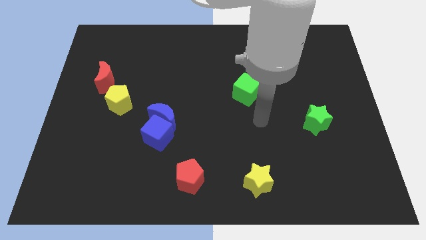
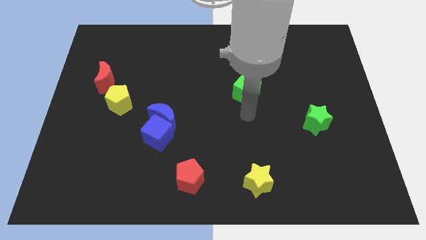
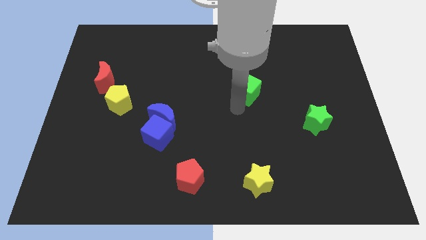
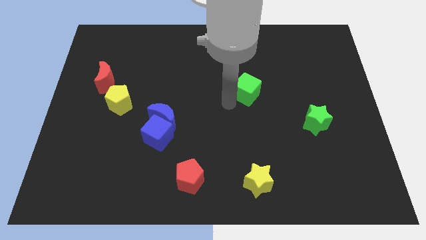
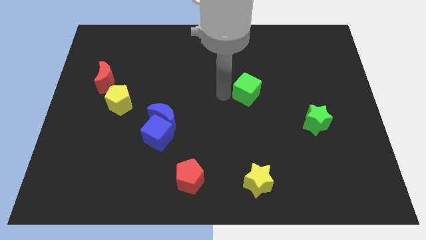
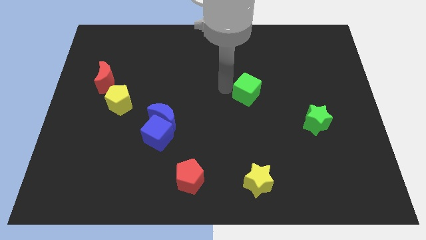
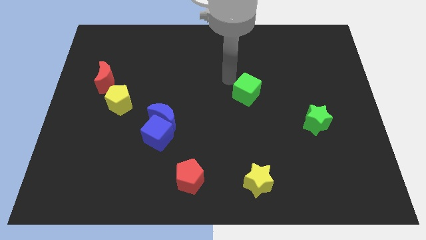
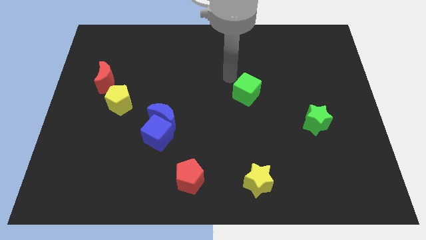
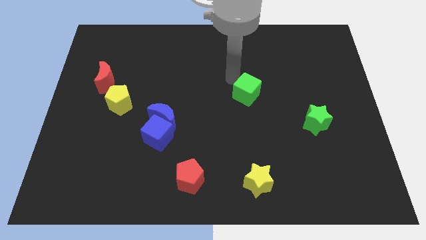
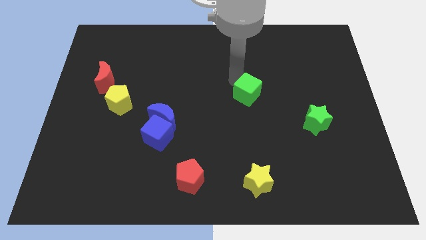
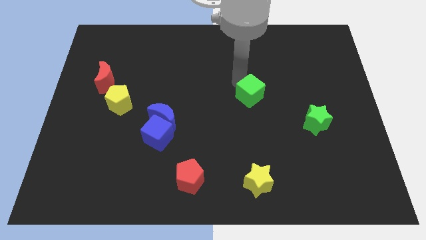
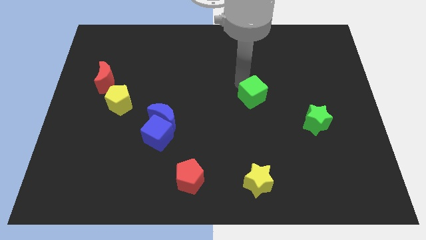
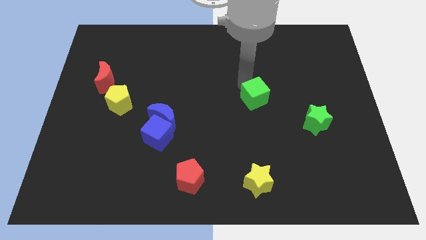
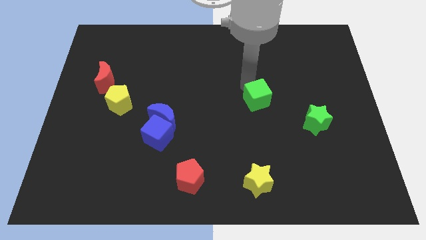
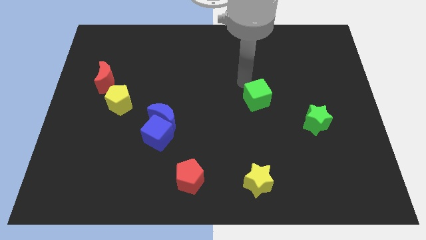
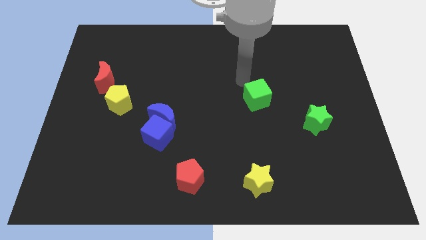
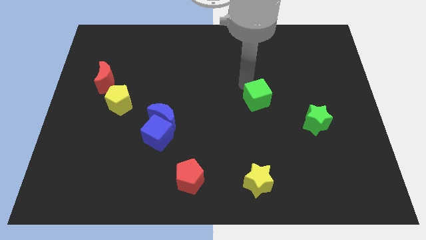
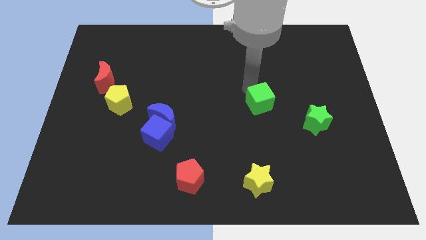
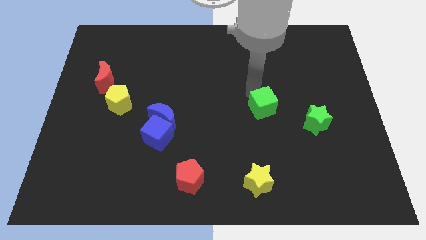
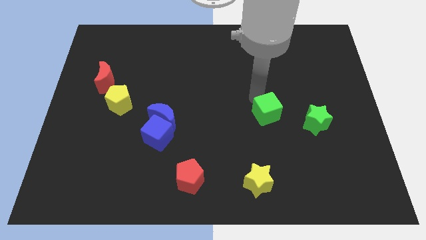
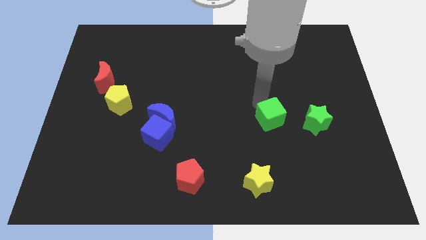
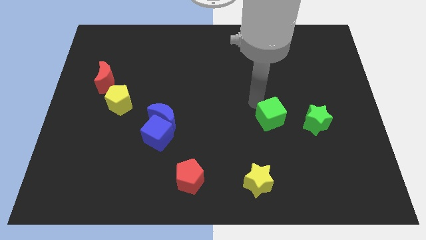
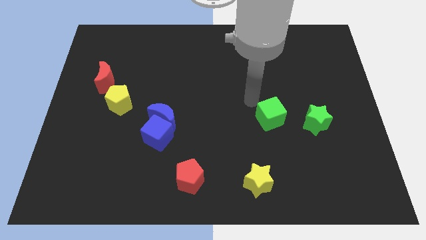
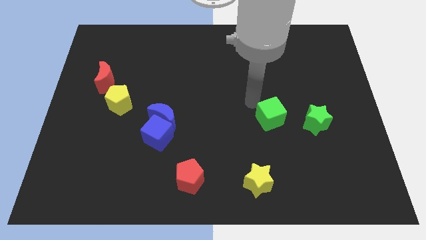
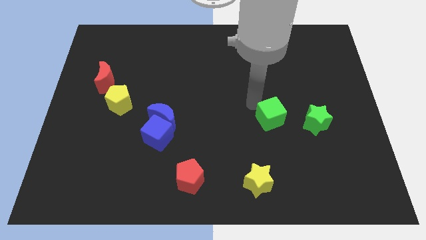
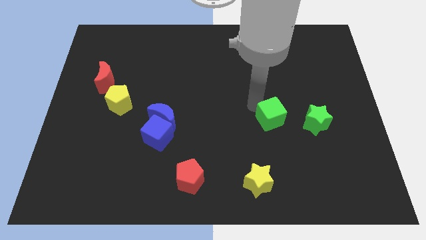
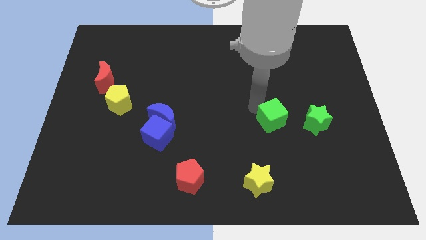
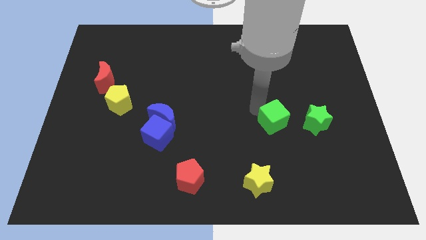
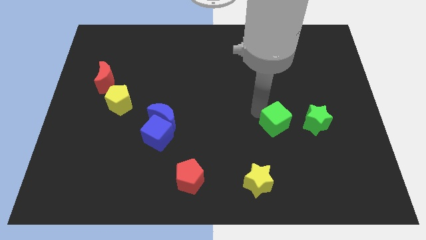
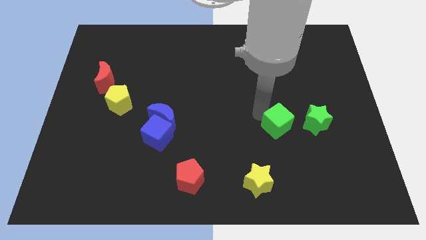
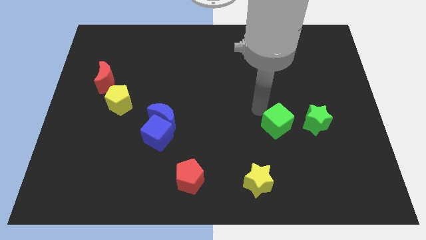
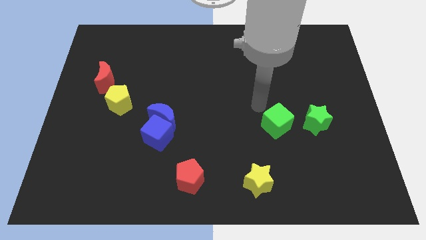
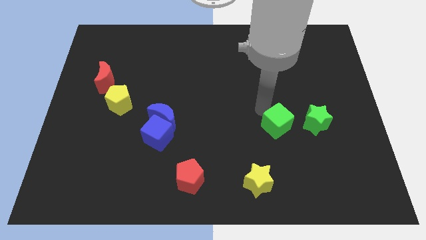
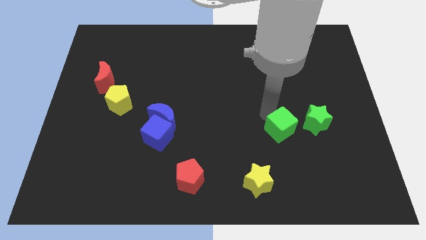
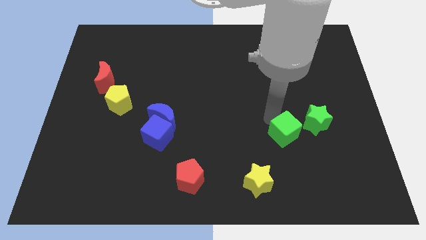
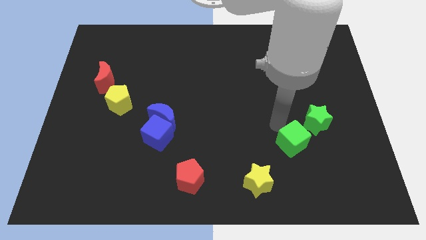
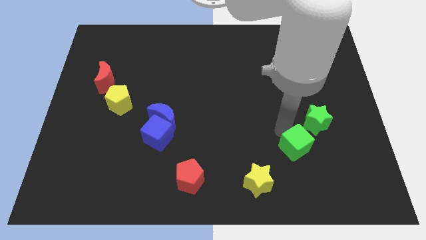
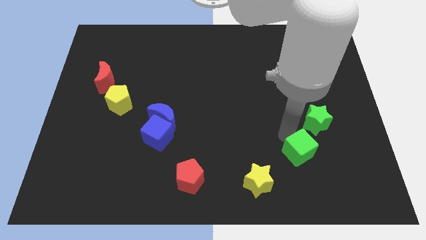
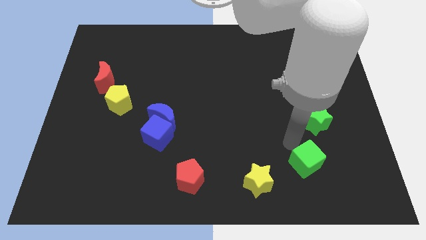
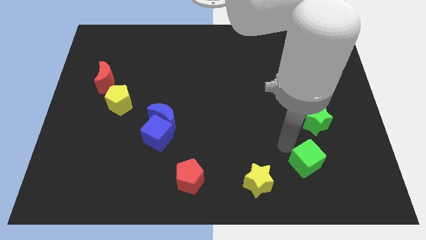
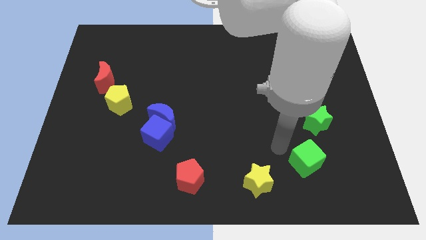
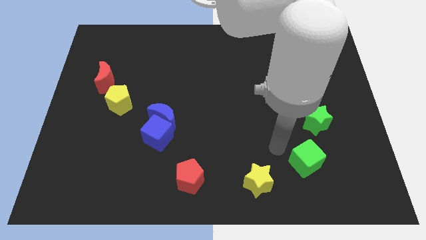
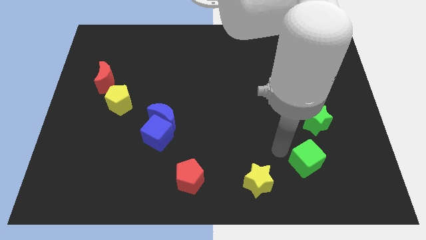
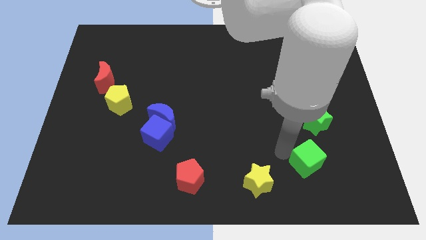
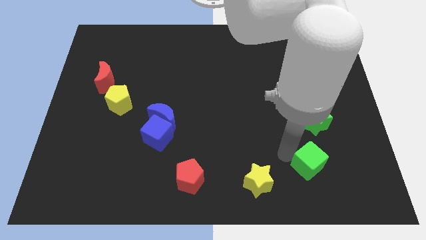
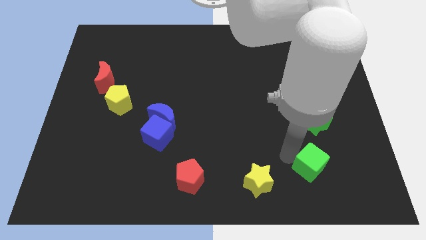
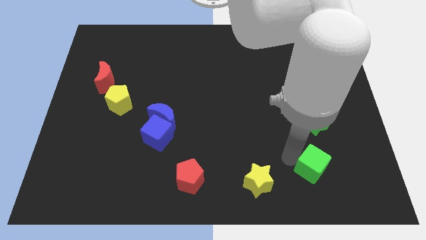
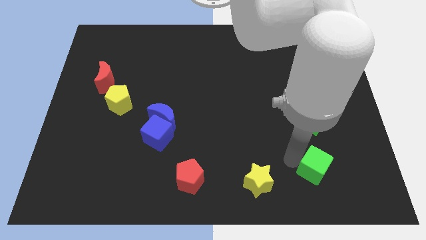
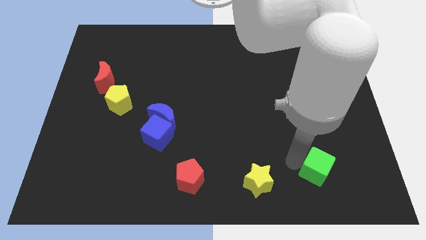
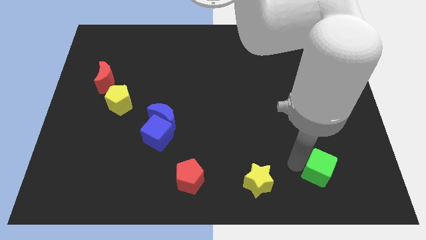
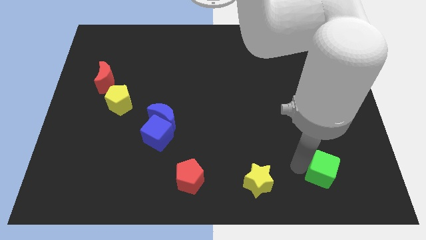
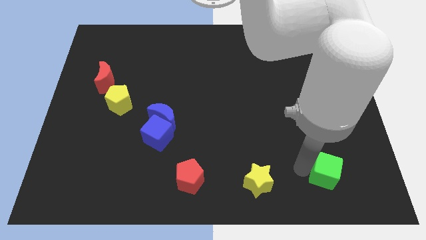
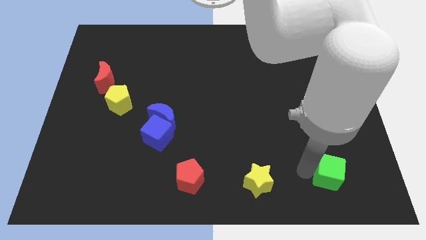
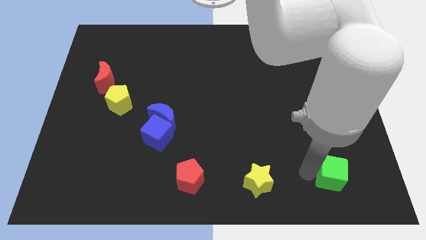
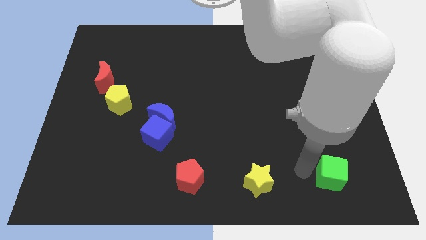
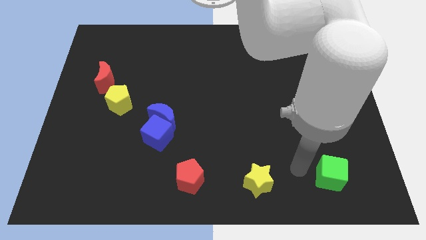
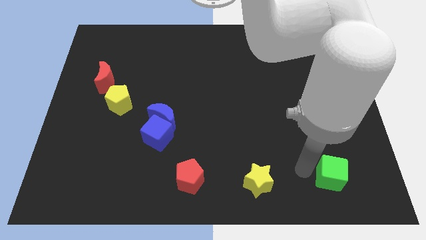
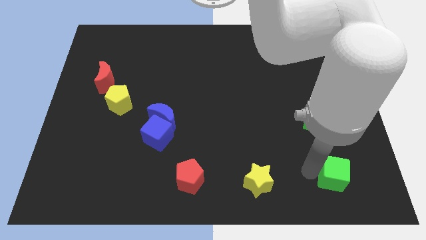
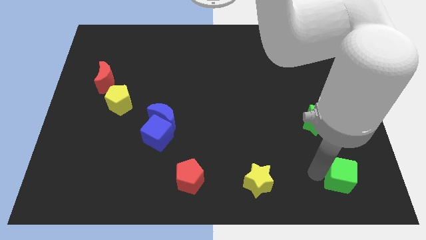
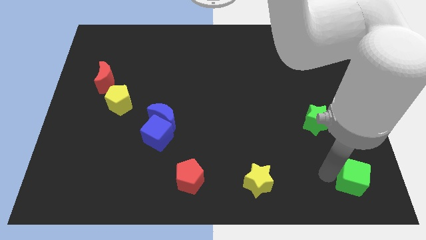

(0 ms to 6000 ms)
put the green cube to the bottom right of the board

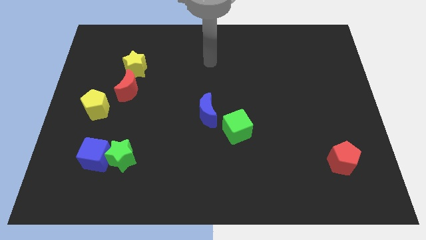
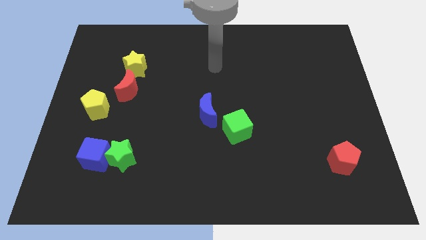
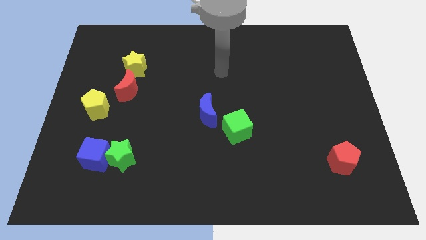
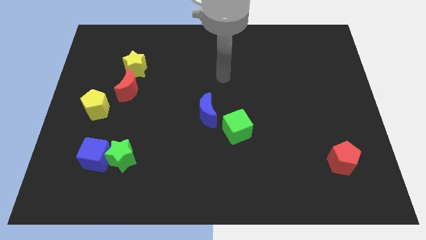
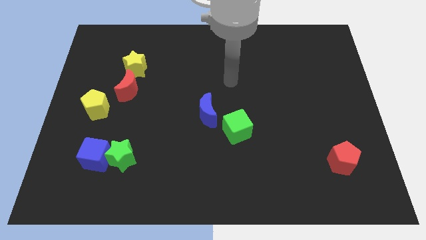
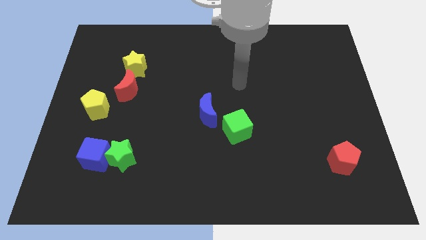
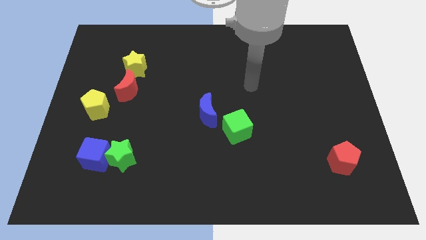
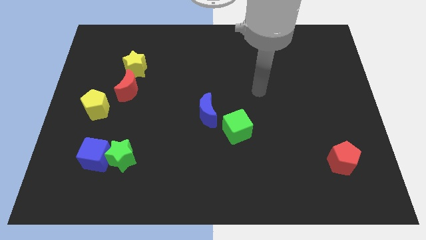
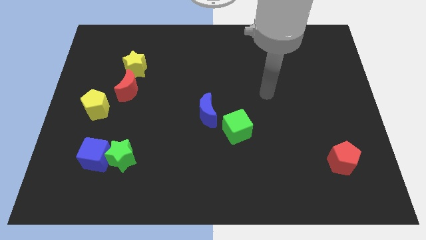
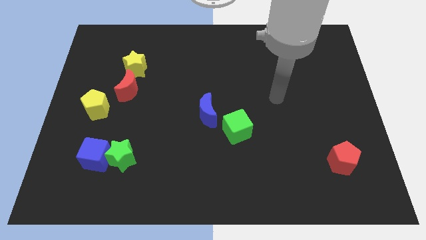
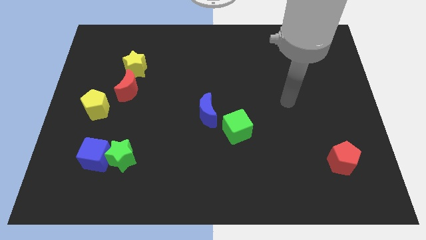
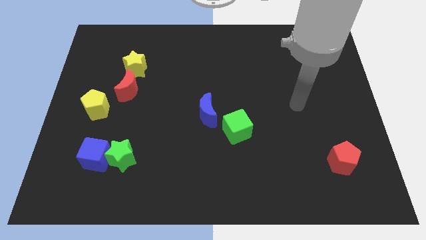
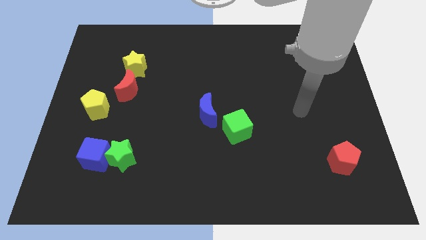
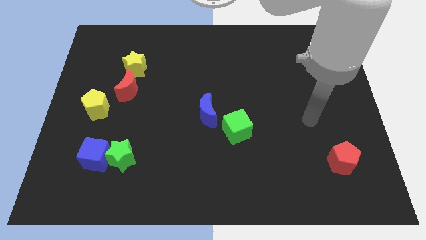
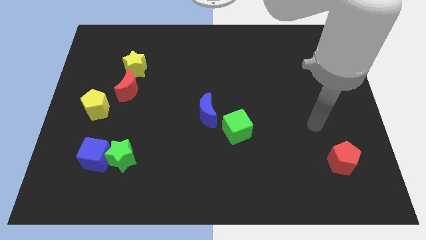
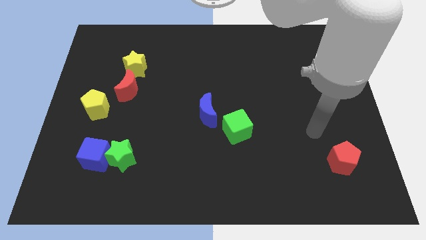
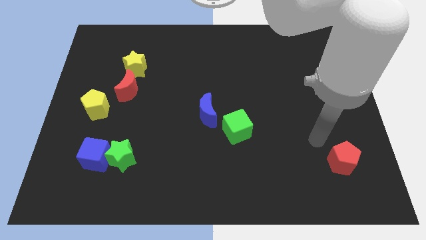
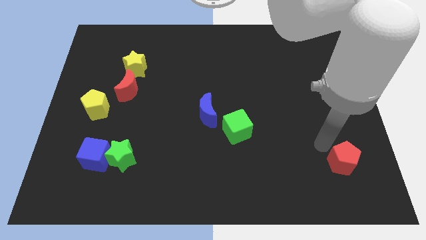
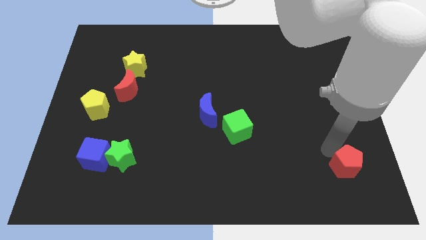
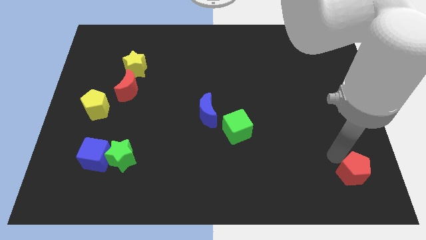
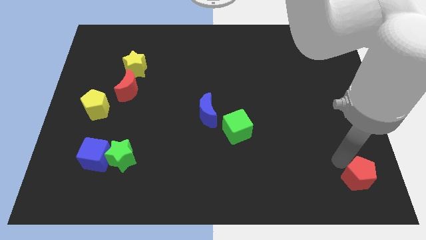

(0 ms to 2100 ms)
move the red pentagon to the bottom right of the board
